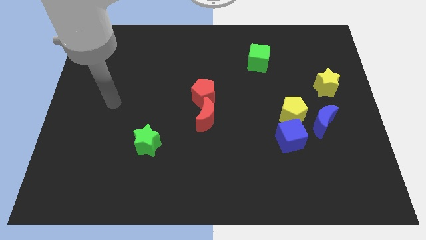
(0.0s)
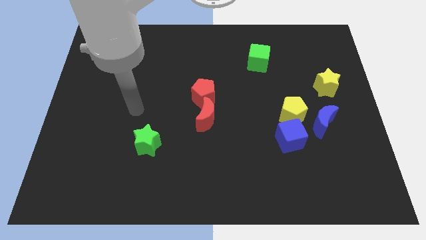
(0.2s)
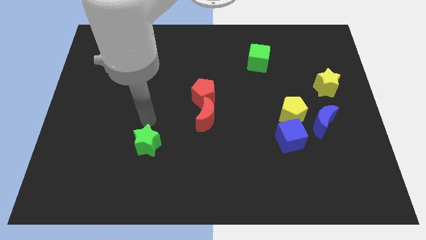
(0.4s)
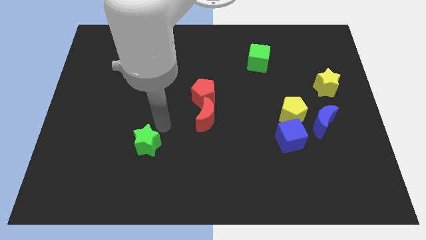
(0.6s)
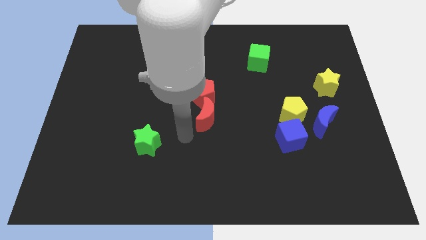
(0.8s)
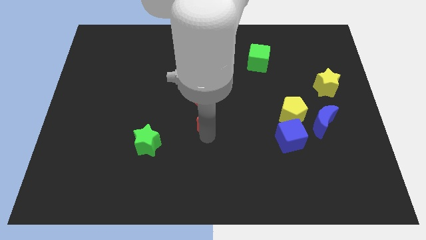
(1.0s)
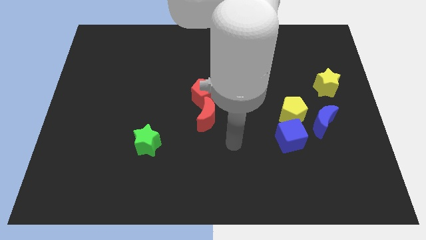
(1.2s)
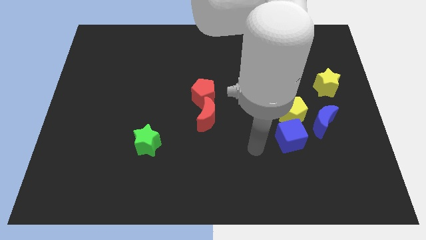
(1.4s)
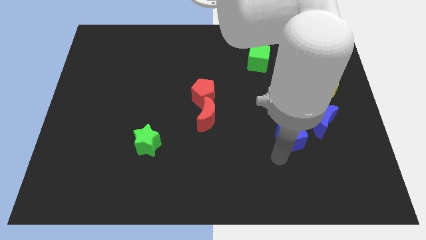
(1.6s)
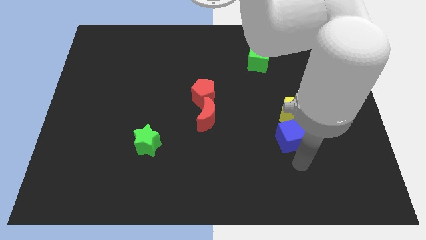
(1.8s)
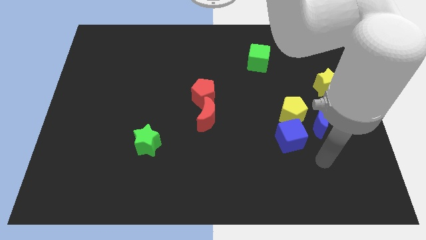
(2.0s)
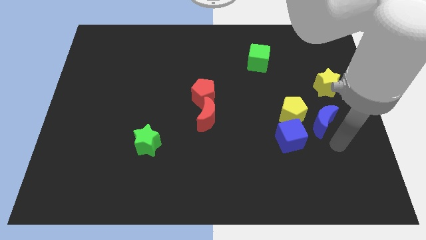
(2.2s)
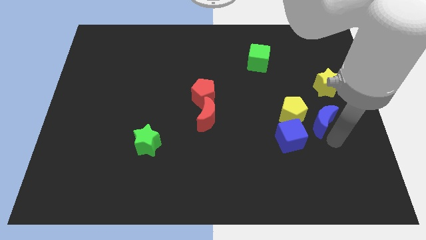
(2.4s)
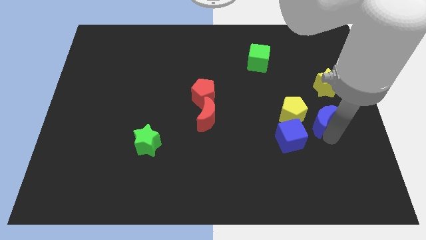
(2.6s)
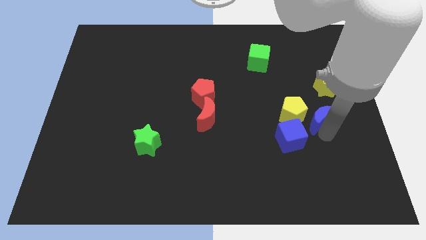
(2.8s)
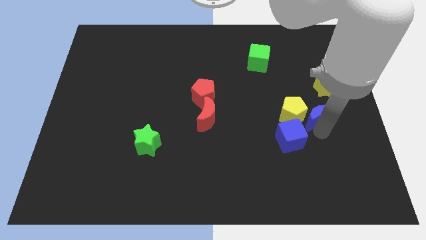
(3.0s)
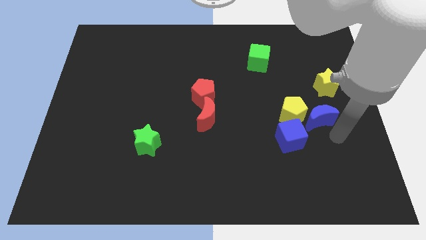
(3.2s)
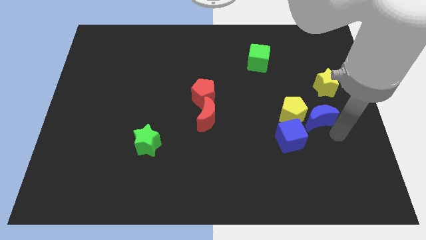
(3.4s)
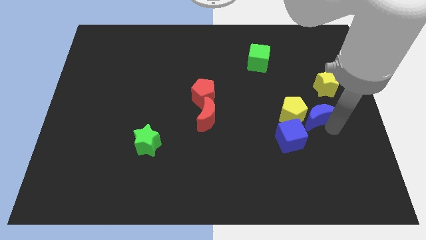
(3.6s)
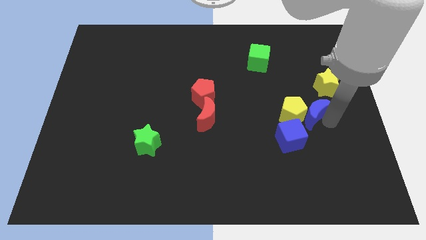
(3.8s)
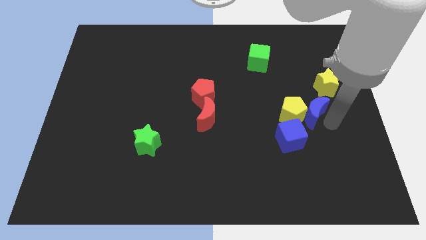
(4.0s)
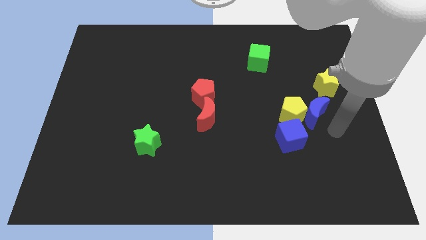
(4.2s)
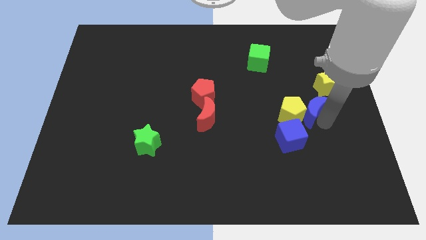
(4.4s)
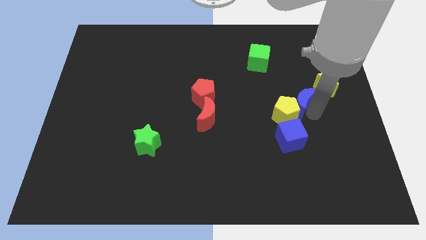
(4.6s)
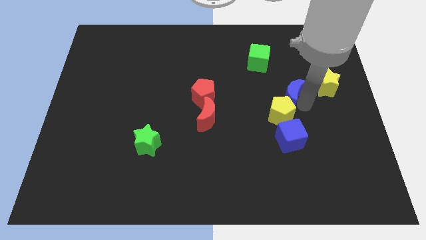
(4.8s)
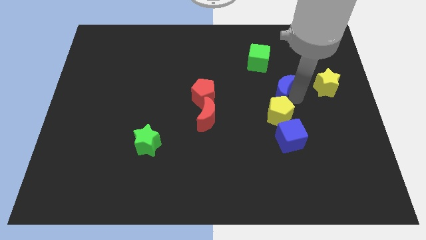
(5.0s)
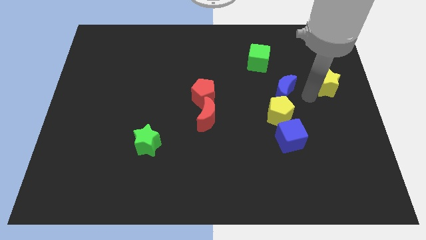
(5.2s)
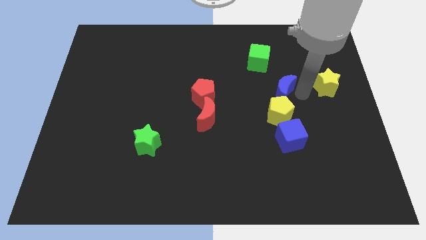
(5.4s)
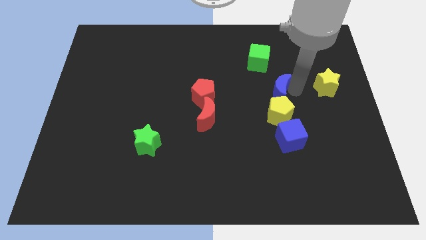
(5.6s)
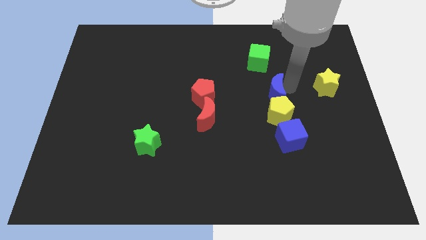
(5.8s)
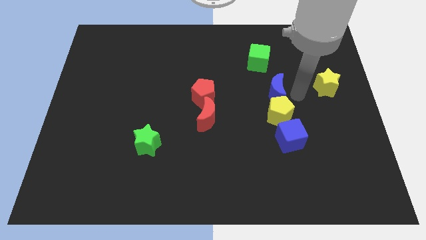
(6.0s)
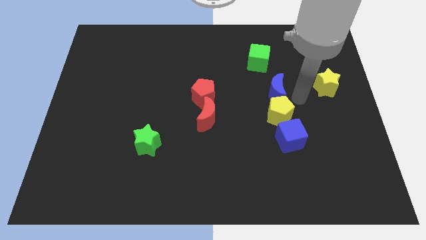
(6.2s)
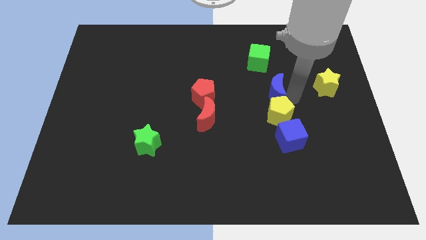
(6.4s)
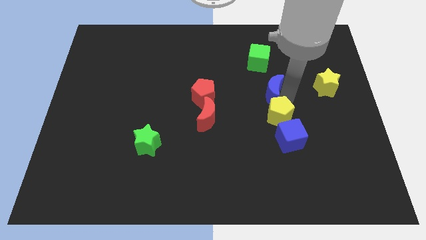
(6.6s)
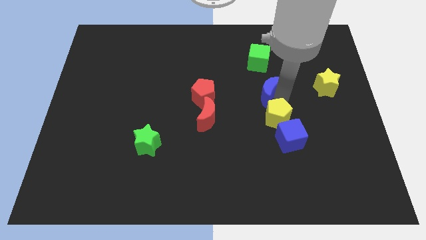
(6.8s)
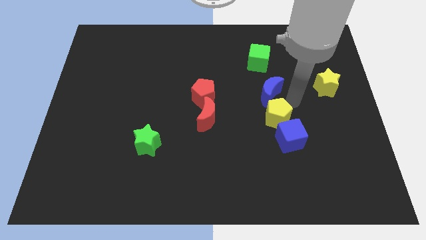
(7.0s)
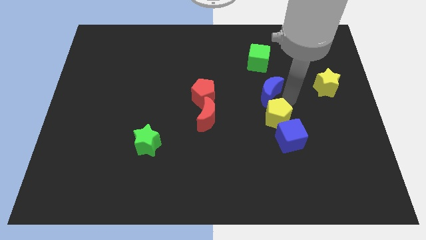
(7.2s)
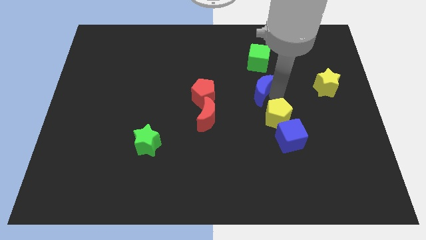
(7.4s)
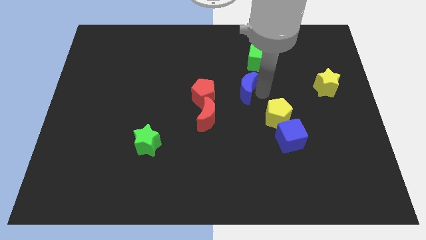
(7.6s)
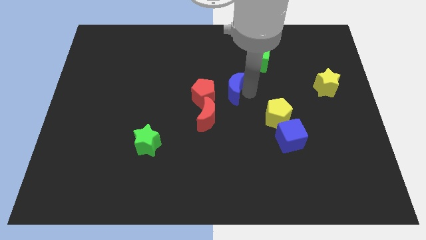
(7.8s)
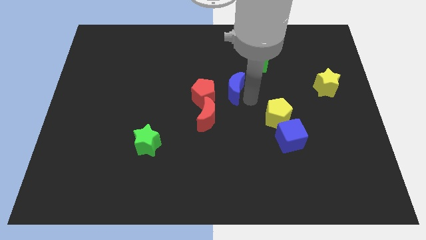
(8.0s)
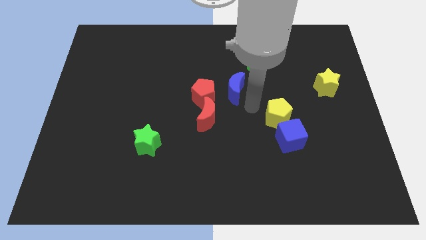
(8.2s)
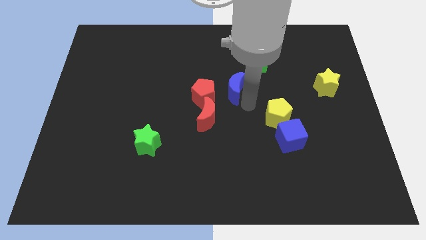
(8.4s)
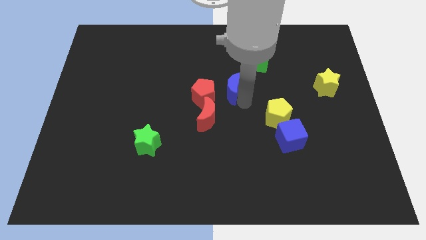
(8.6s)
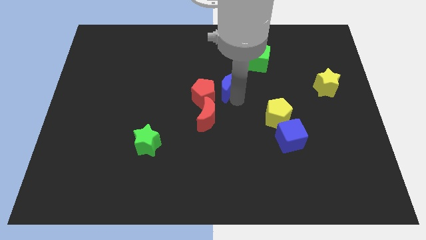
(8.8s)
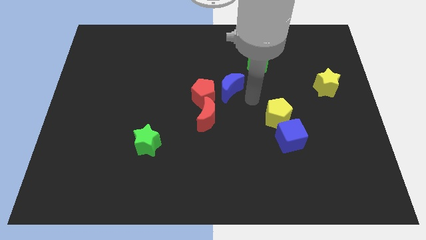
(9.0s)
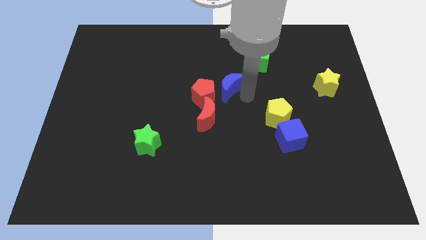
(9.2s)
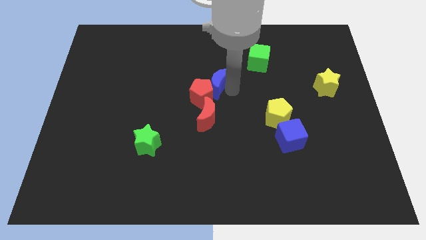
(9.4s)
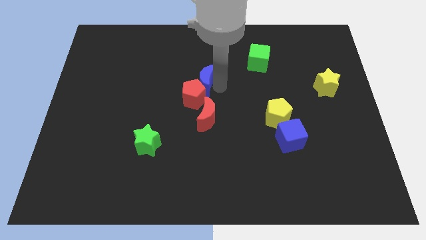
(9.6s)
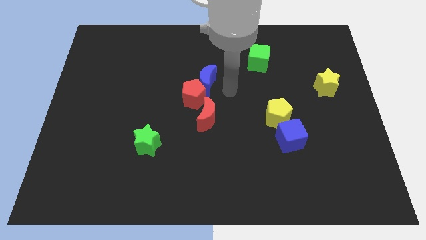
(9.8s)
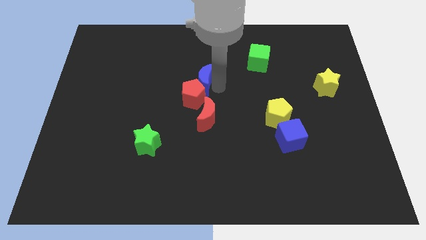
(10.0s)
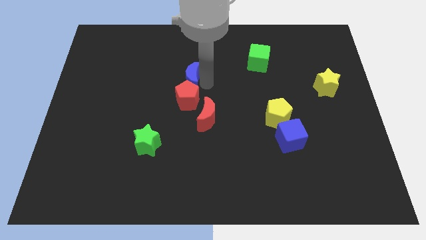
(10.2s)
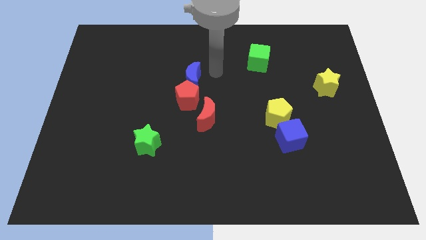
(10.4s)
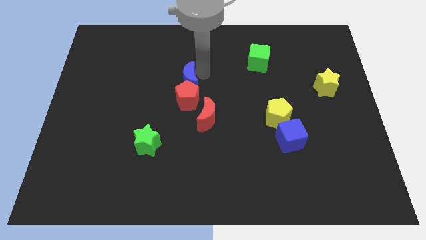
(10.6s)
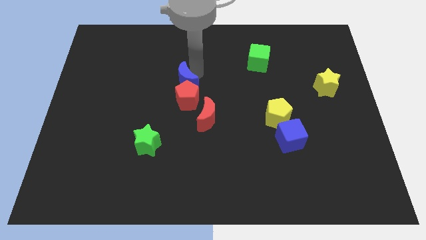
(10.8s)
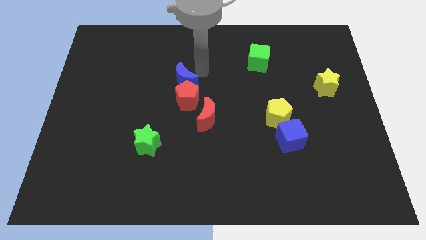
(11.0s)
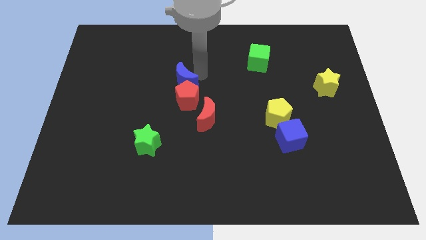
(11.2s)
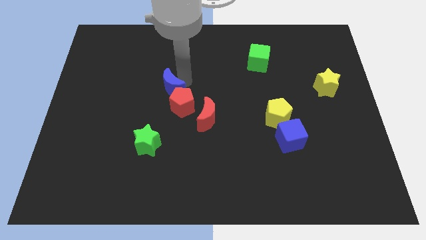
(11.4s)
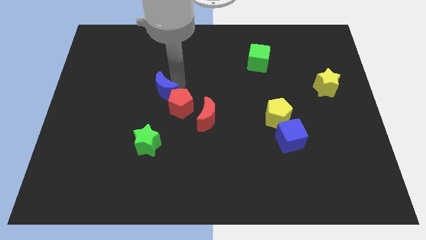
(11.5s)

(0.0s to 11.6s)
push the blue moon left of the red pentagon
